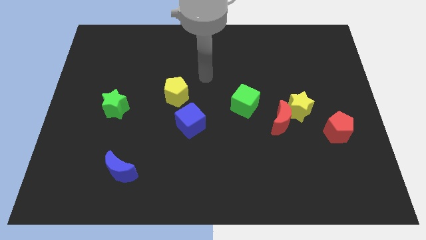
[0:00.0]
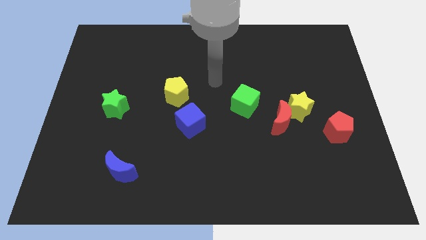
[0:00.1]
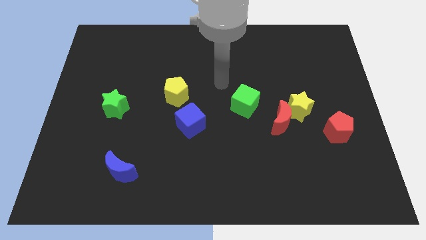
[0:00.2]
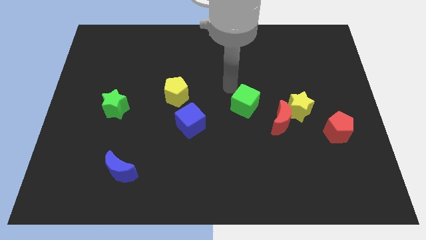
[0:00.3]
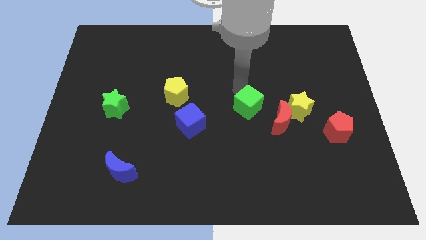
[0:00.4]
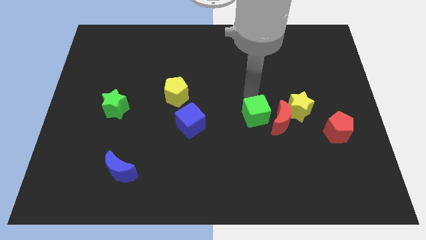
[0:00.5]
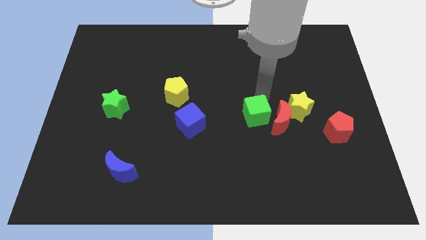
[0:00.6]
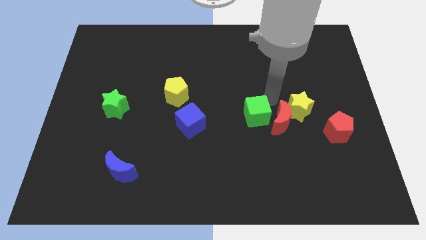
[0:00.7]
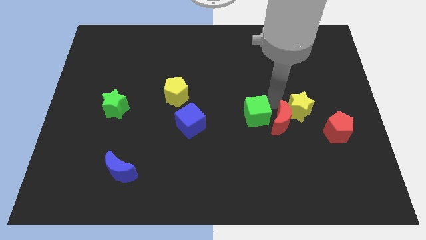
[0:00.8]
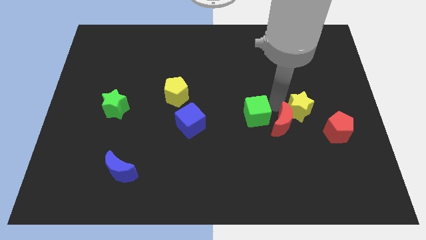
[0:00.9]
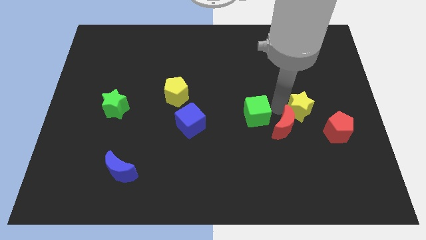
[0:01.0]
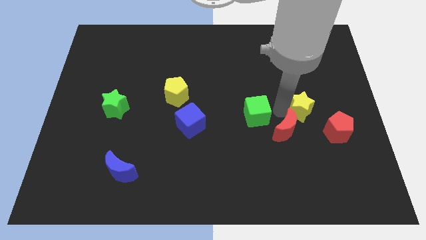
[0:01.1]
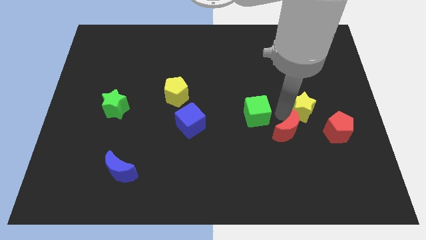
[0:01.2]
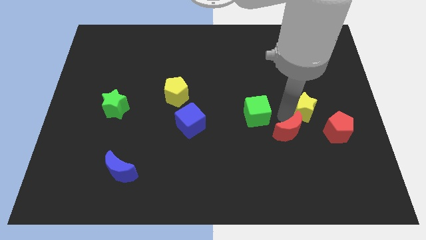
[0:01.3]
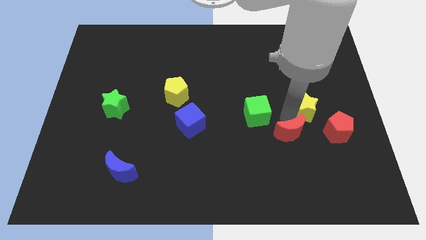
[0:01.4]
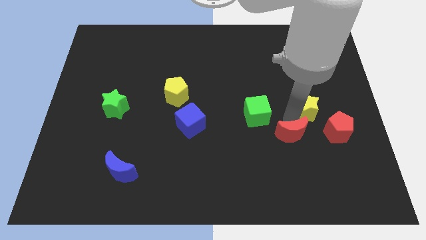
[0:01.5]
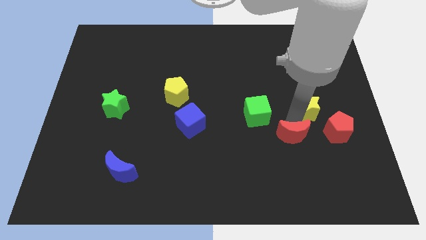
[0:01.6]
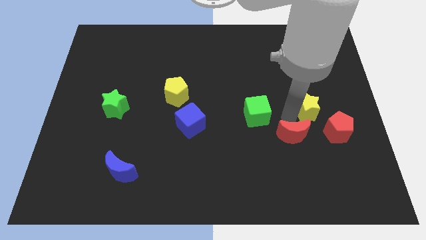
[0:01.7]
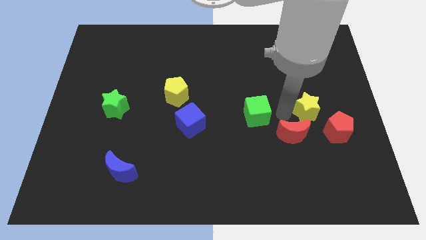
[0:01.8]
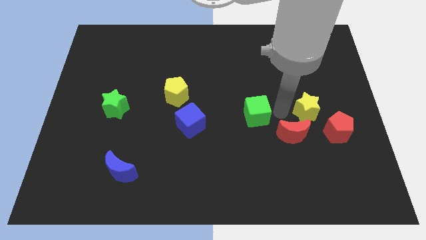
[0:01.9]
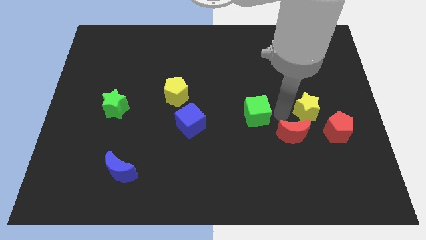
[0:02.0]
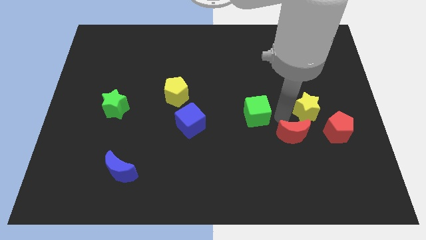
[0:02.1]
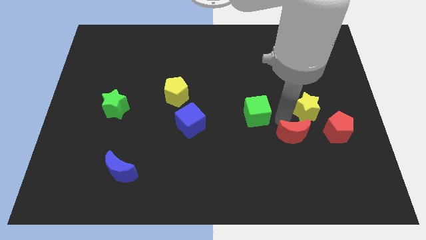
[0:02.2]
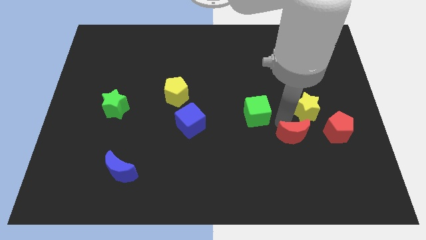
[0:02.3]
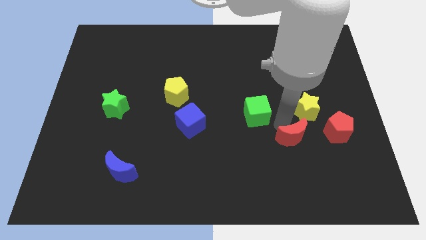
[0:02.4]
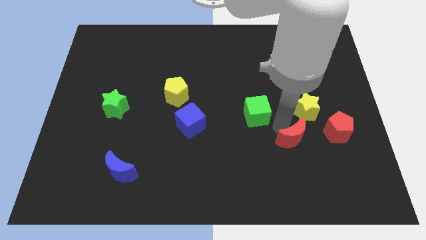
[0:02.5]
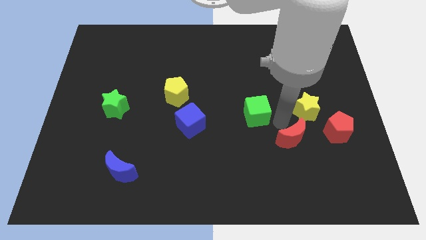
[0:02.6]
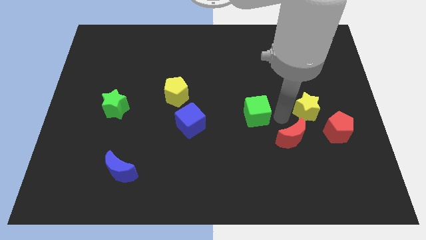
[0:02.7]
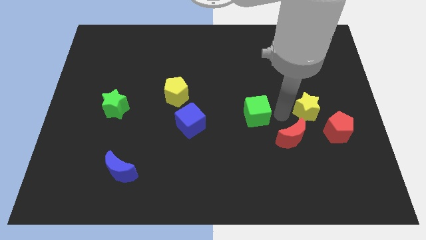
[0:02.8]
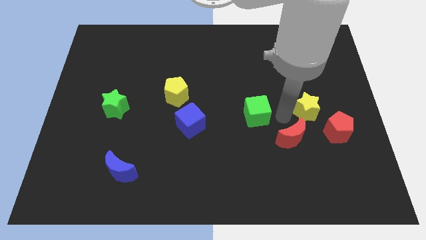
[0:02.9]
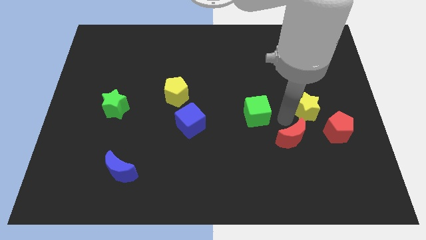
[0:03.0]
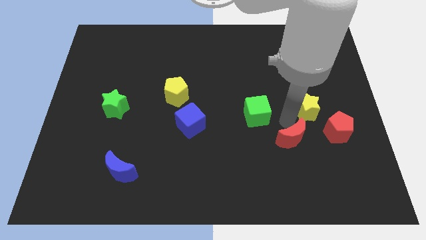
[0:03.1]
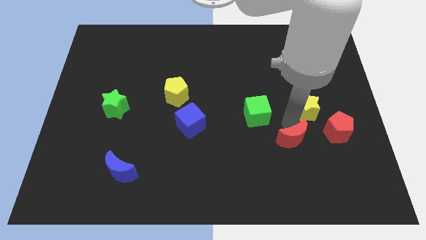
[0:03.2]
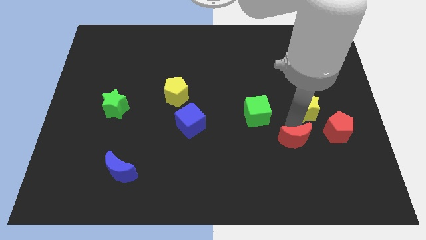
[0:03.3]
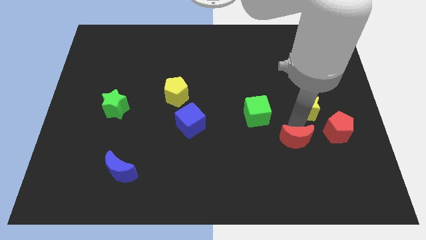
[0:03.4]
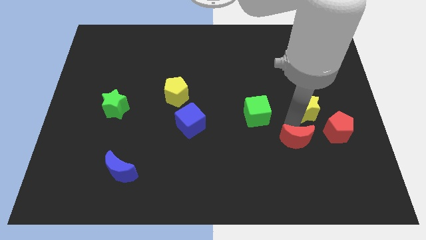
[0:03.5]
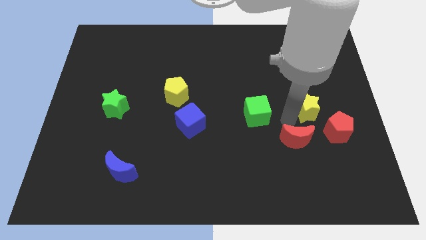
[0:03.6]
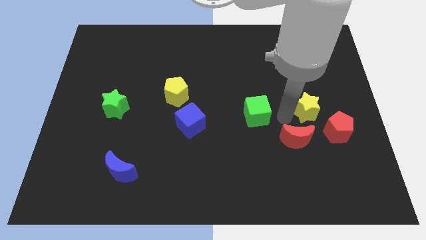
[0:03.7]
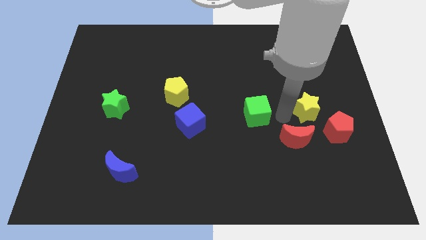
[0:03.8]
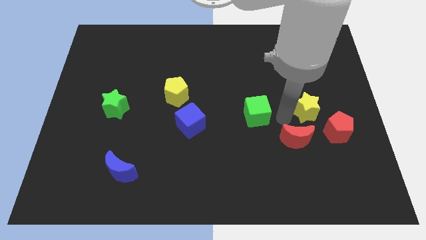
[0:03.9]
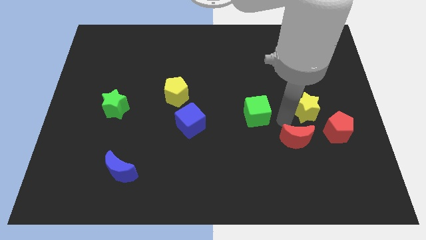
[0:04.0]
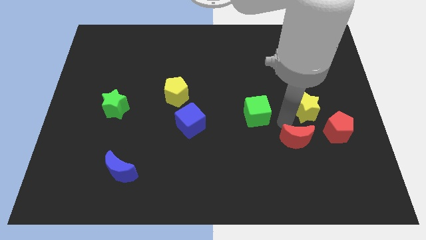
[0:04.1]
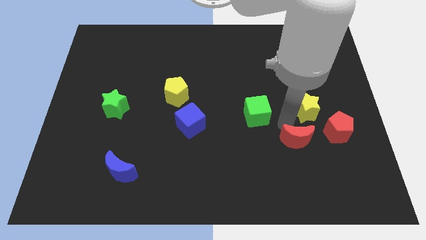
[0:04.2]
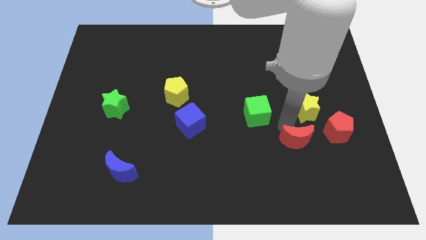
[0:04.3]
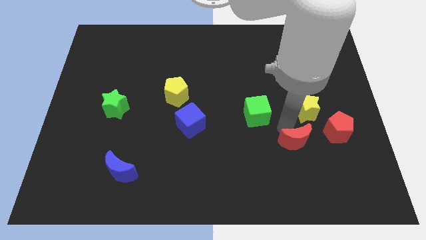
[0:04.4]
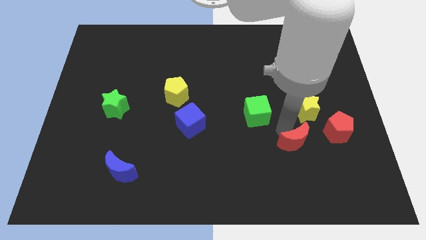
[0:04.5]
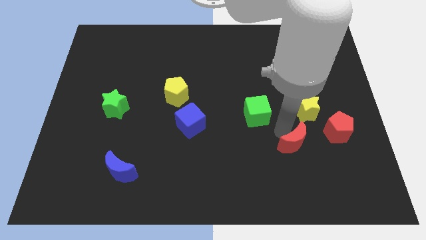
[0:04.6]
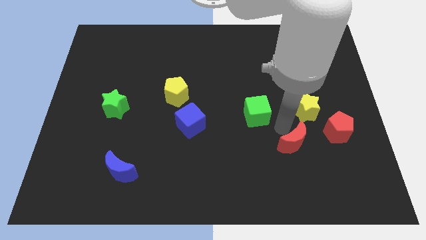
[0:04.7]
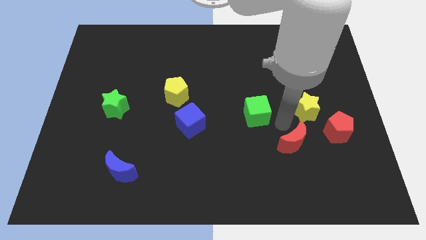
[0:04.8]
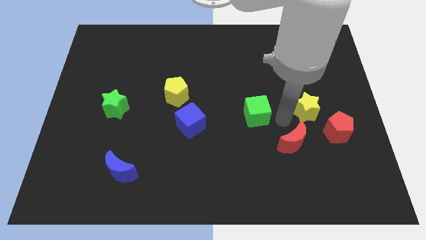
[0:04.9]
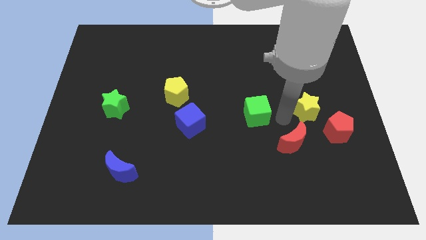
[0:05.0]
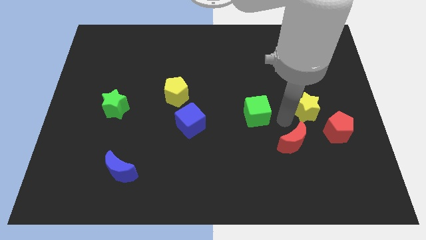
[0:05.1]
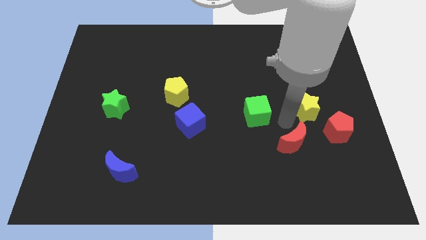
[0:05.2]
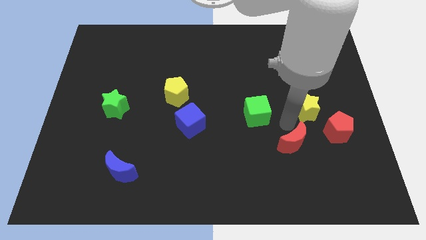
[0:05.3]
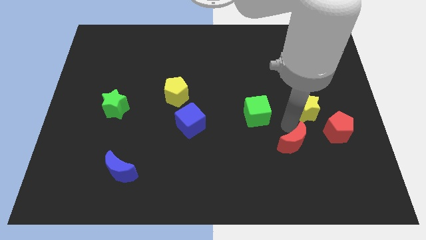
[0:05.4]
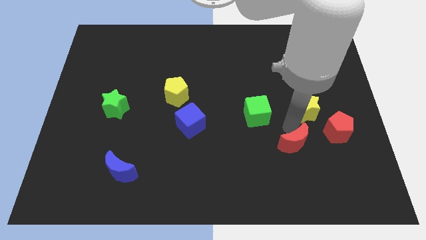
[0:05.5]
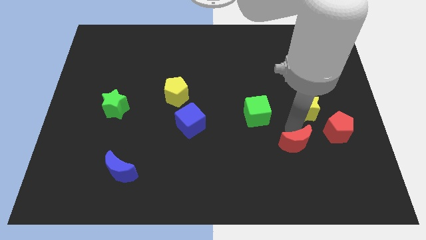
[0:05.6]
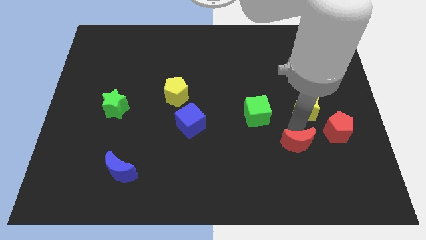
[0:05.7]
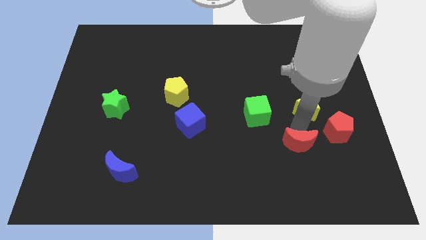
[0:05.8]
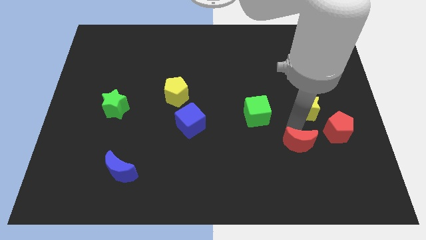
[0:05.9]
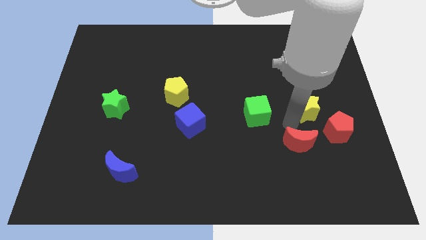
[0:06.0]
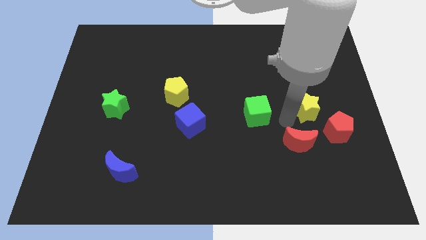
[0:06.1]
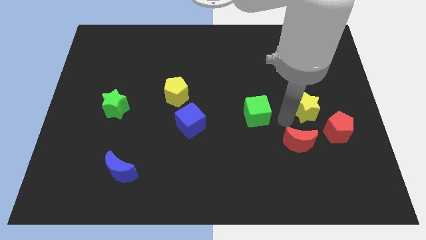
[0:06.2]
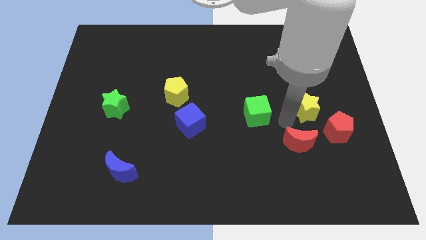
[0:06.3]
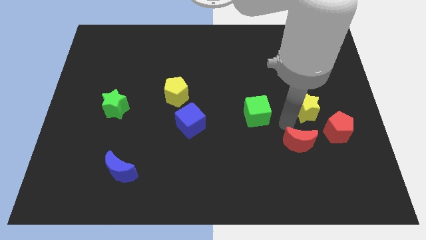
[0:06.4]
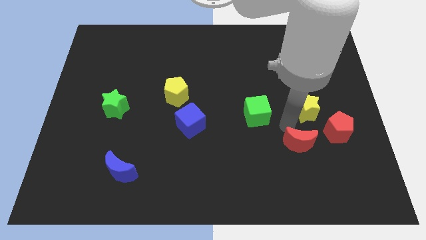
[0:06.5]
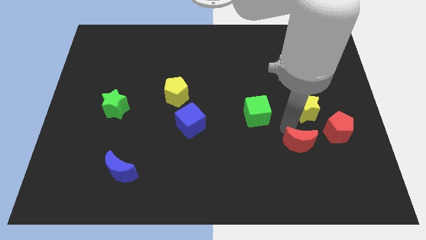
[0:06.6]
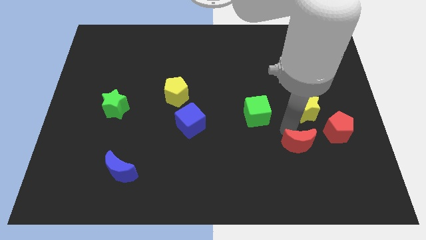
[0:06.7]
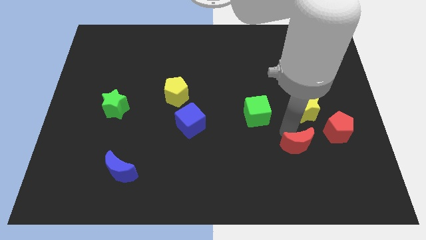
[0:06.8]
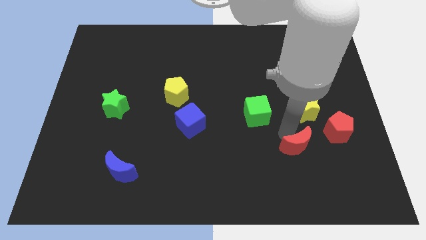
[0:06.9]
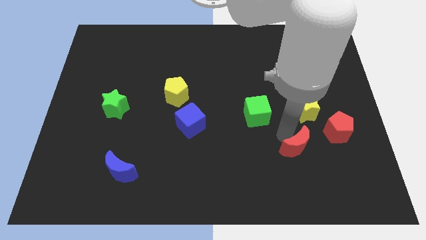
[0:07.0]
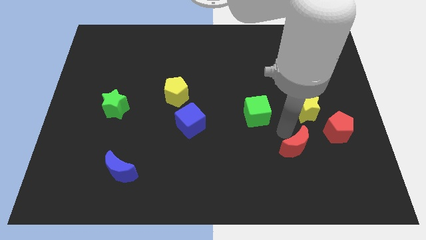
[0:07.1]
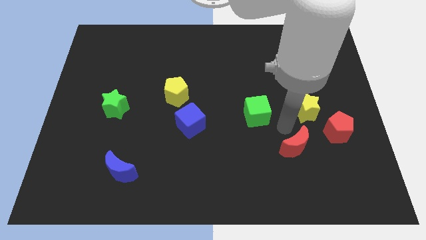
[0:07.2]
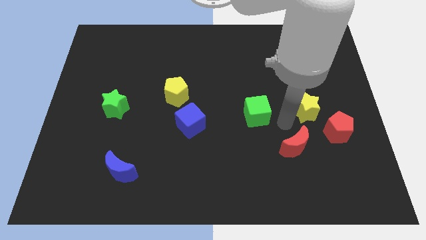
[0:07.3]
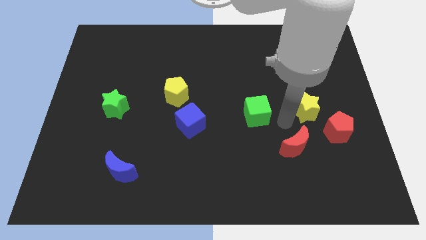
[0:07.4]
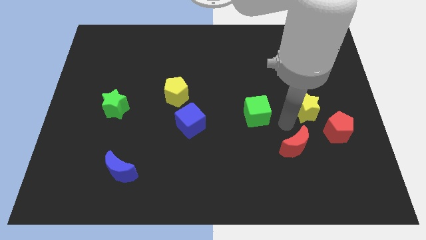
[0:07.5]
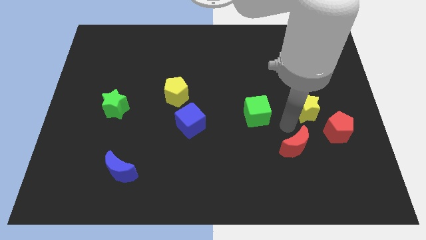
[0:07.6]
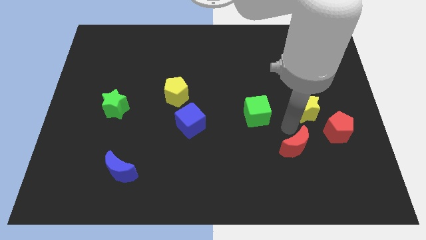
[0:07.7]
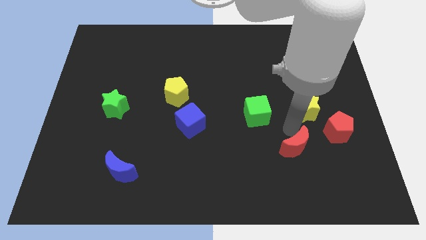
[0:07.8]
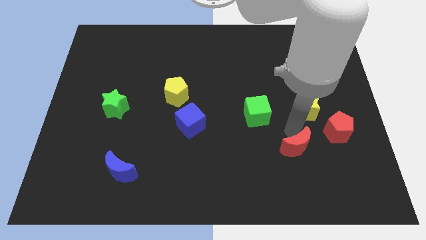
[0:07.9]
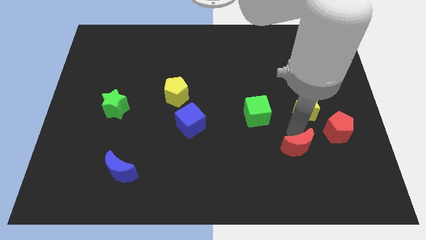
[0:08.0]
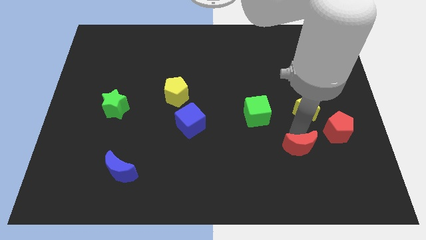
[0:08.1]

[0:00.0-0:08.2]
pull the red moon apart from the yellow star and green cube

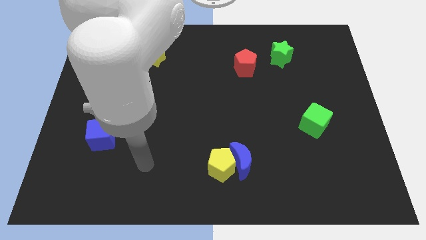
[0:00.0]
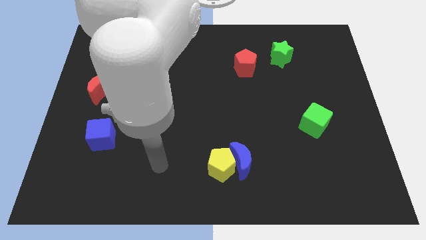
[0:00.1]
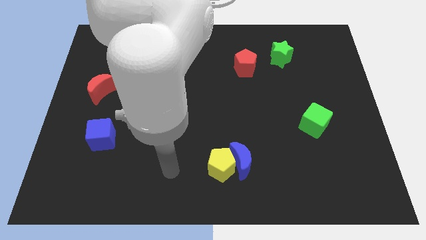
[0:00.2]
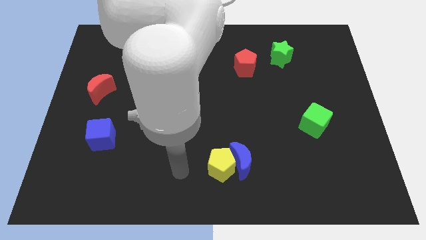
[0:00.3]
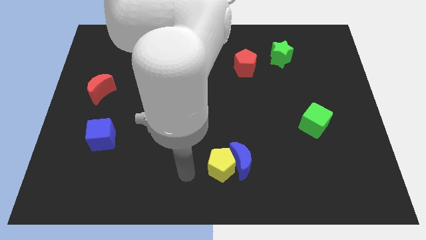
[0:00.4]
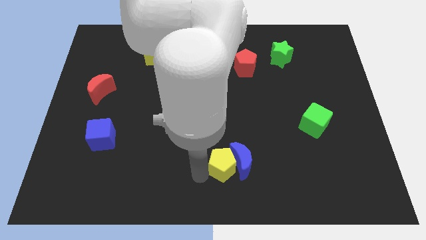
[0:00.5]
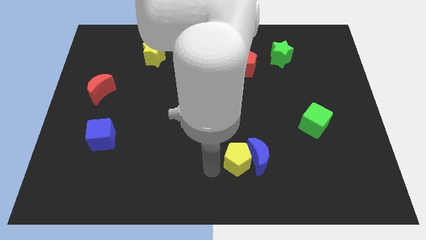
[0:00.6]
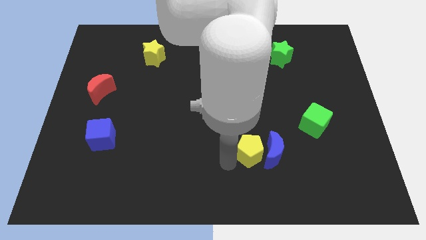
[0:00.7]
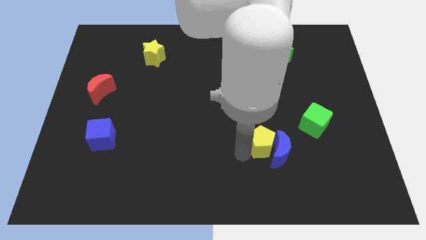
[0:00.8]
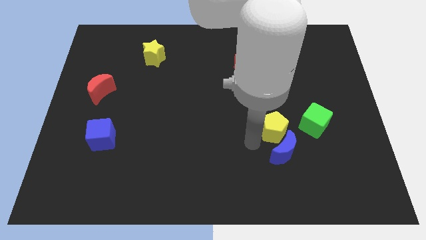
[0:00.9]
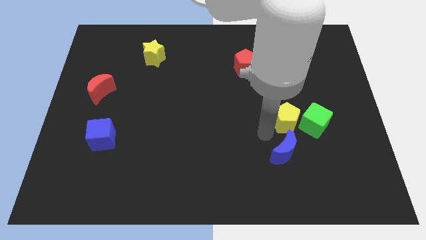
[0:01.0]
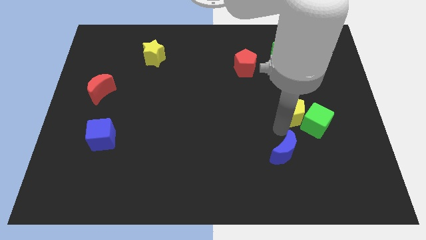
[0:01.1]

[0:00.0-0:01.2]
separate the blue moon from the yellow pentagon
